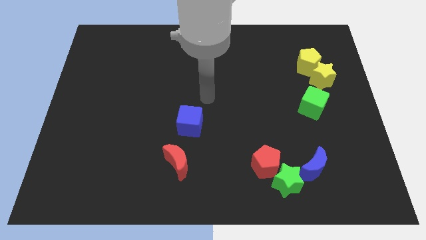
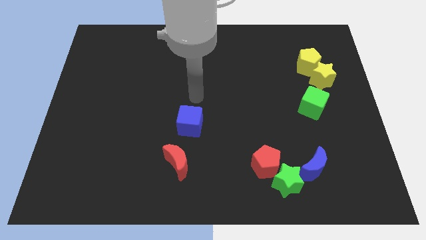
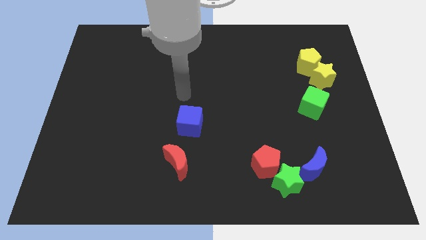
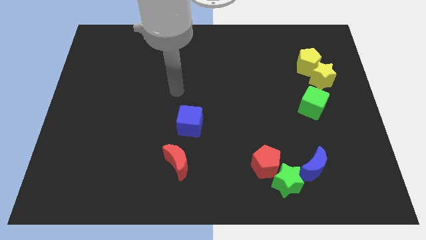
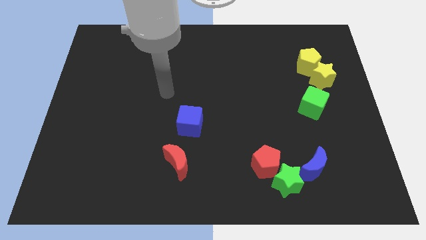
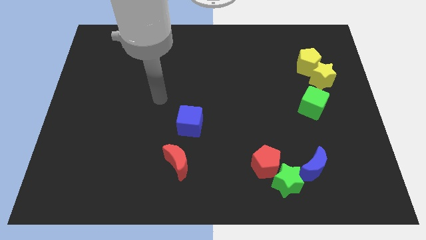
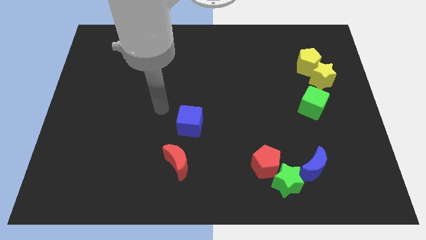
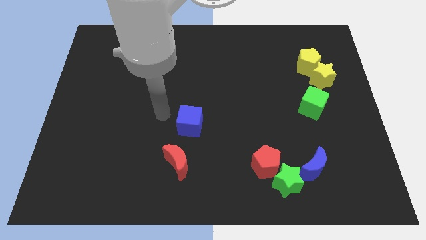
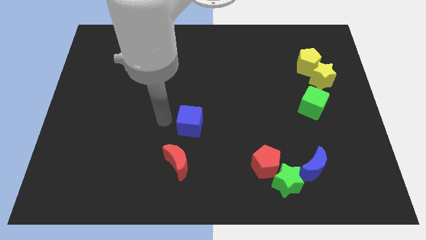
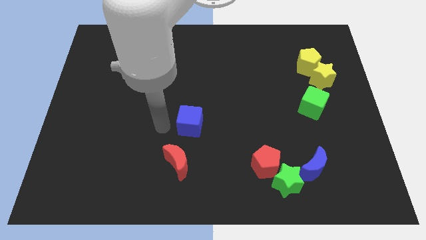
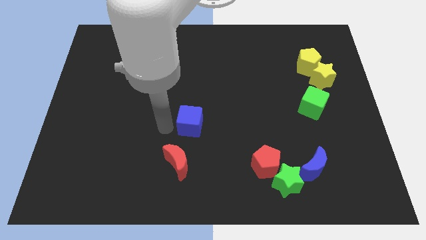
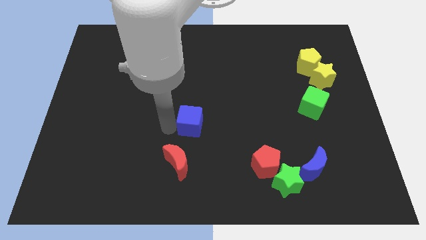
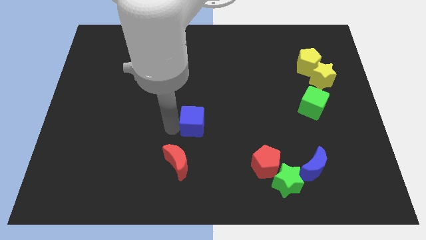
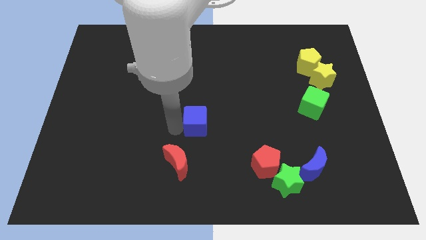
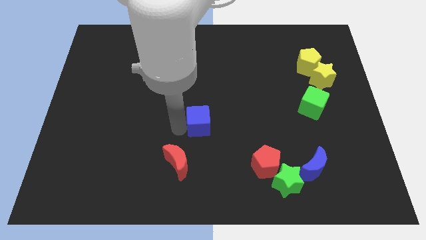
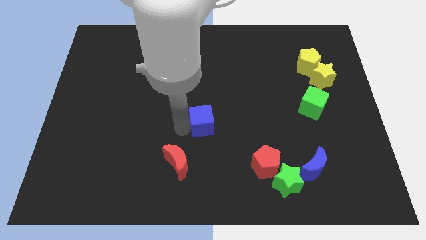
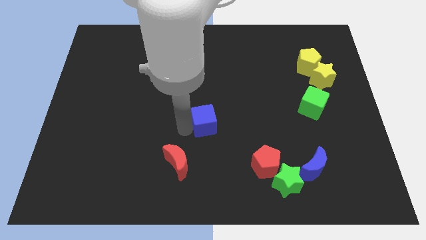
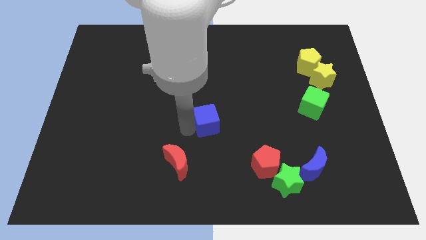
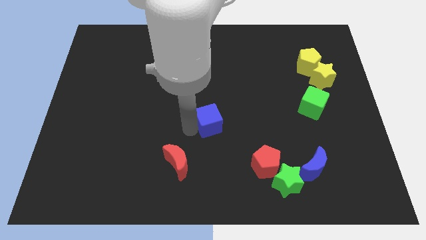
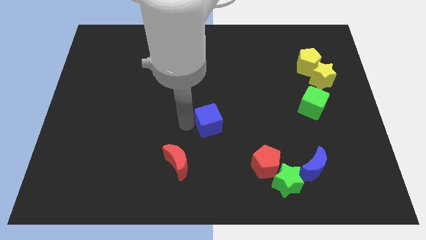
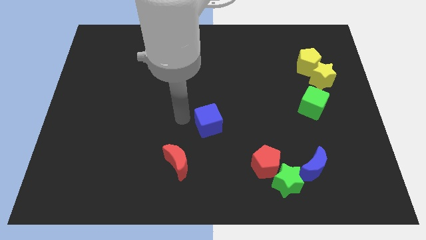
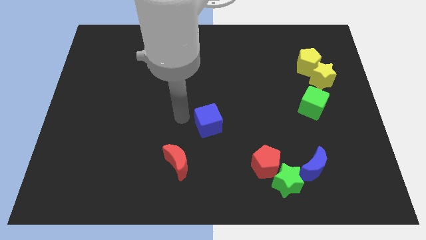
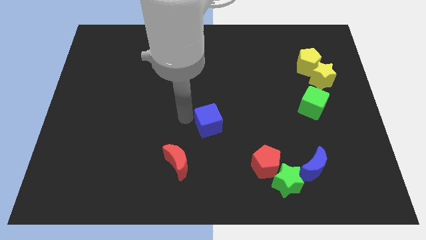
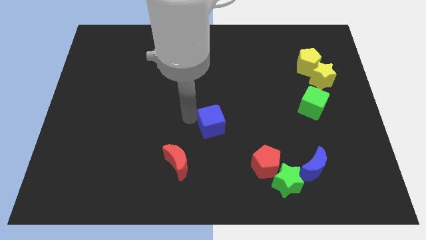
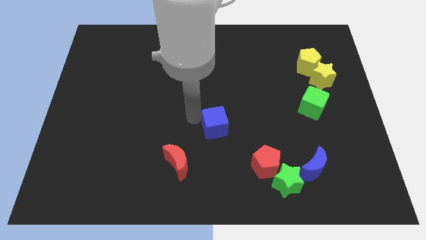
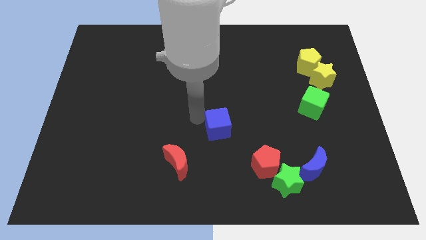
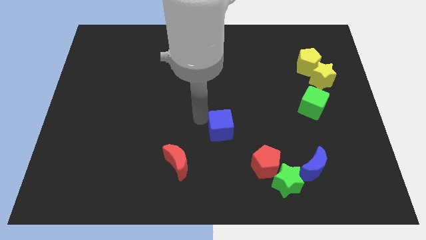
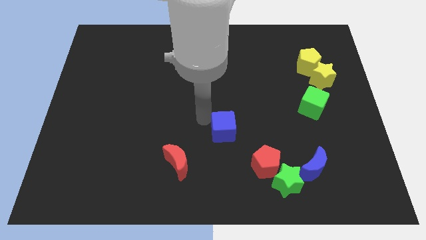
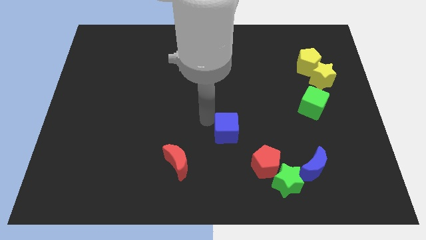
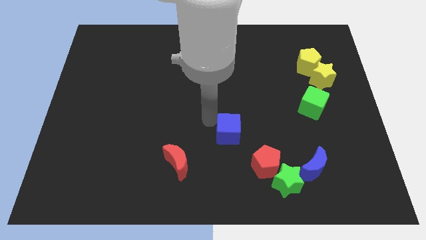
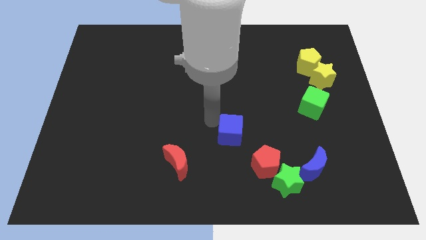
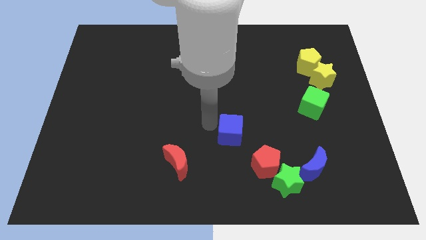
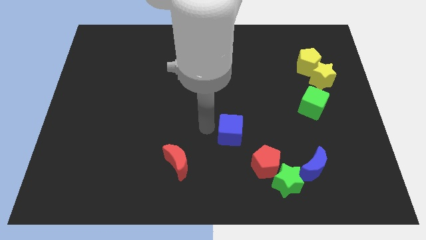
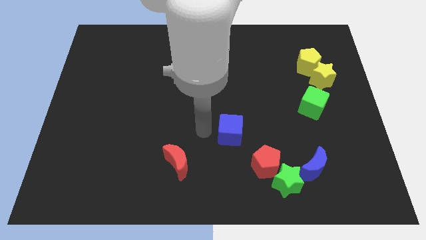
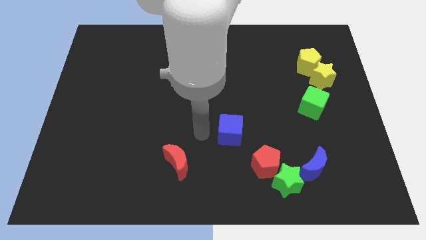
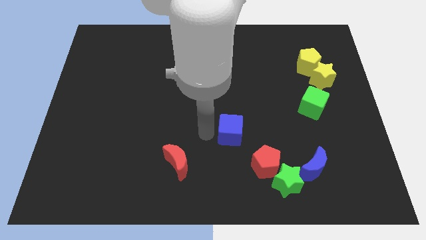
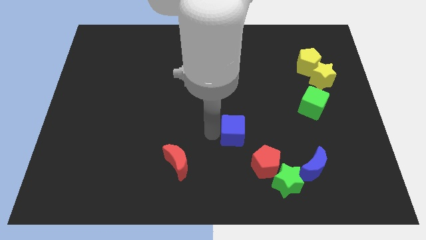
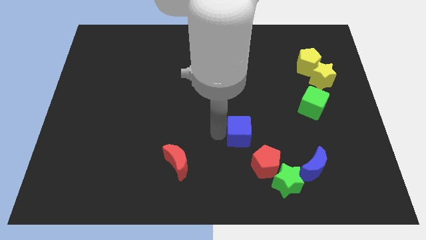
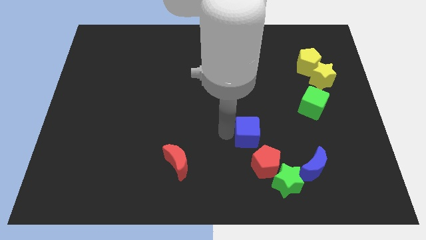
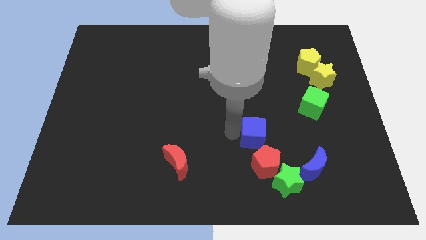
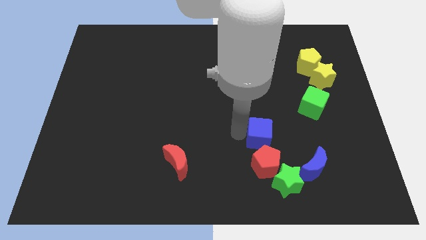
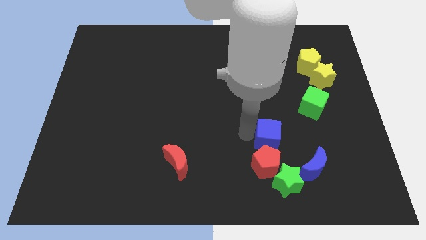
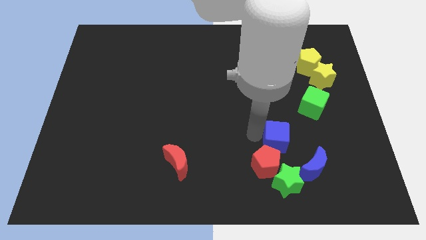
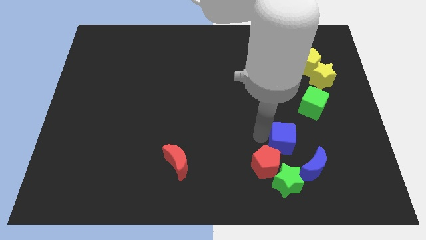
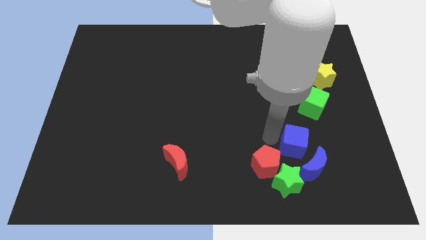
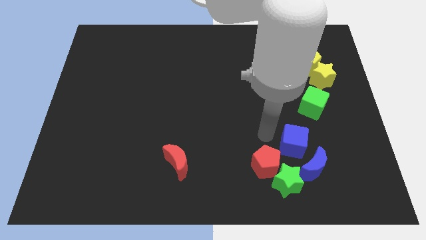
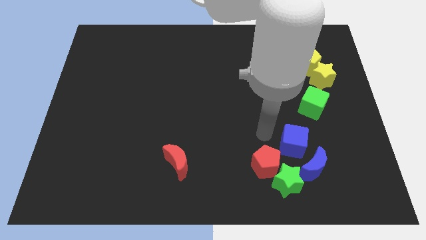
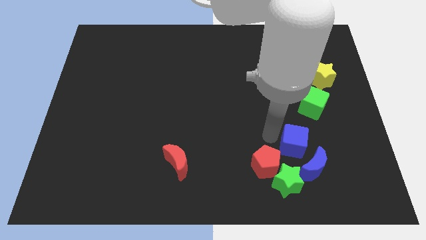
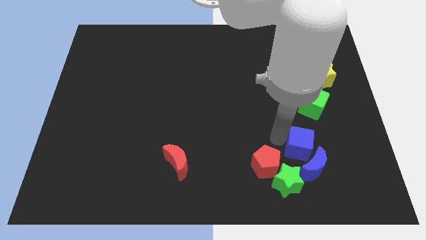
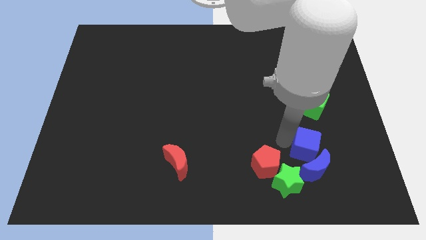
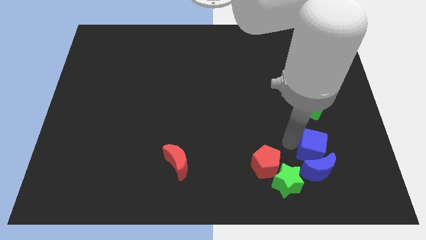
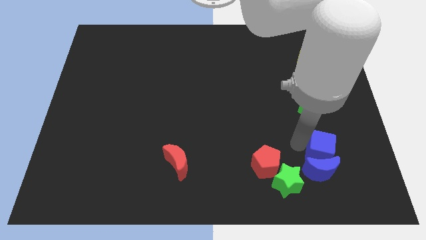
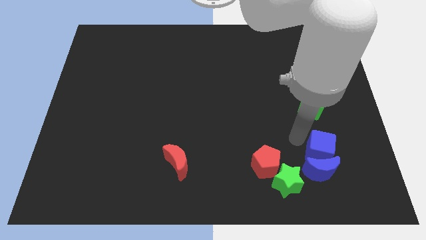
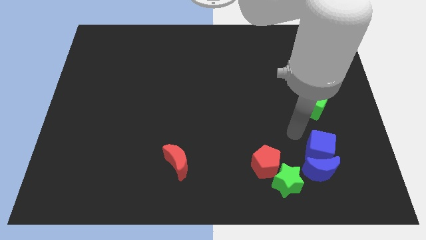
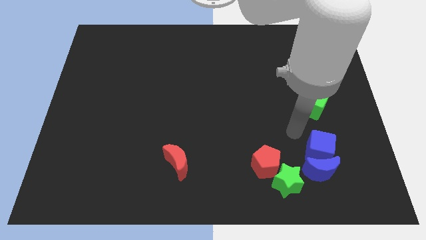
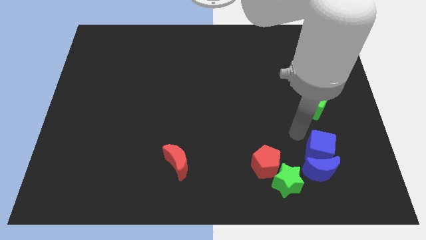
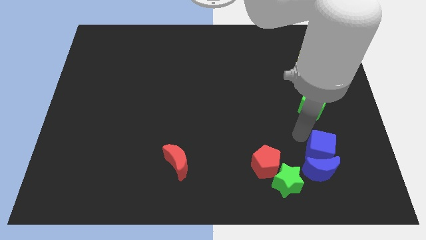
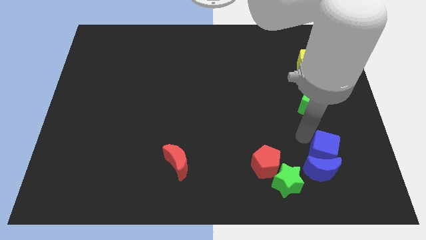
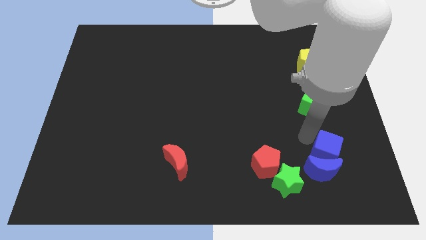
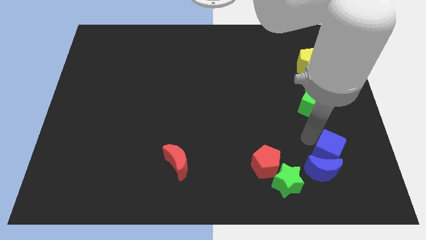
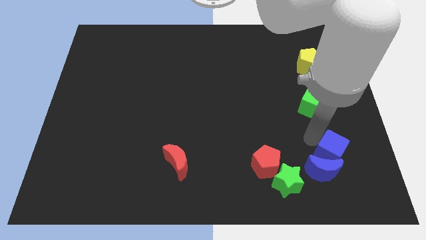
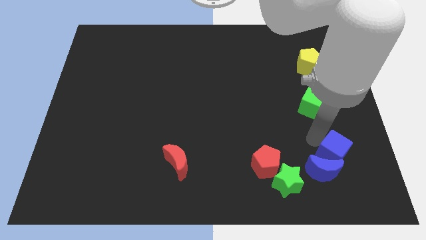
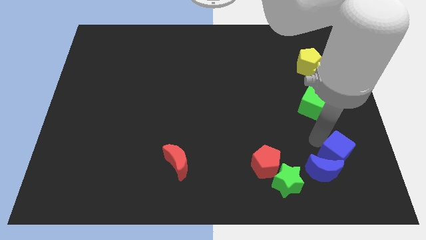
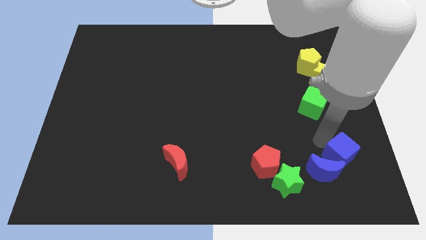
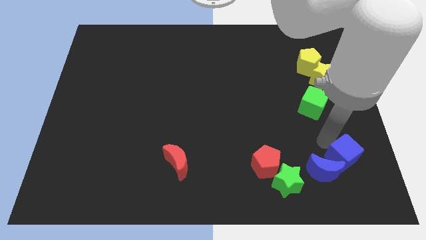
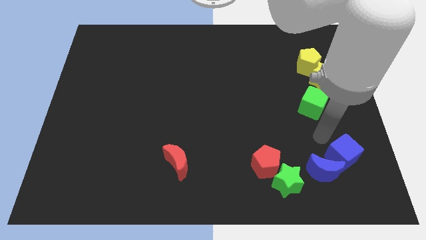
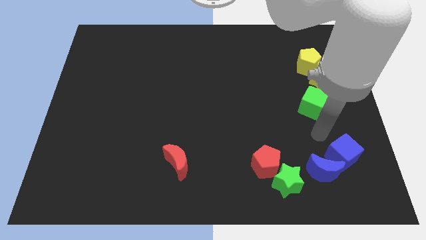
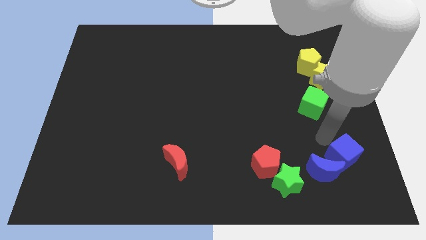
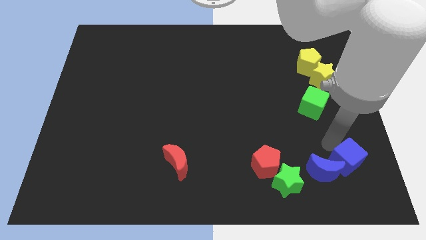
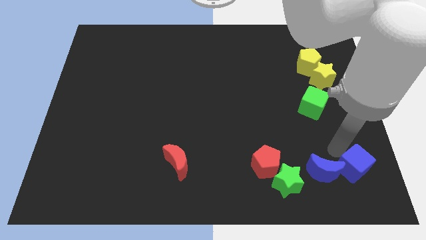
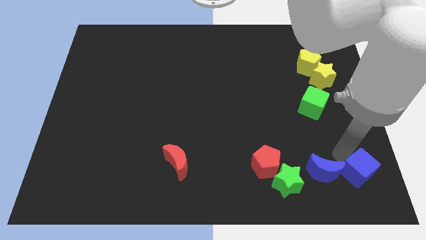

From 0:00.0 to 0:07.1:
move the blue cube to the bottom right of the board
